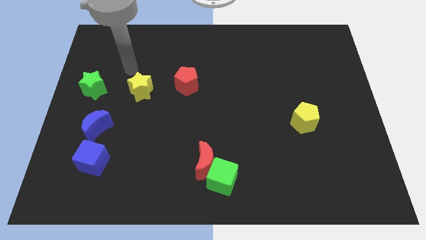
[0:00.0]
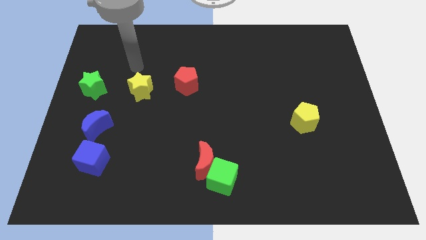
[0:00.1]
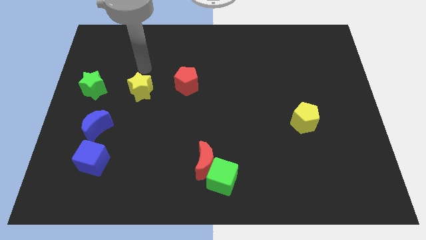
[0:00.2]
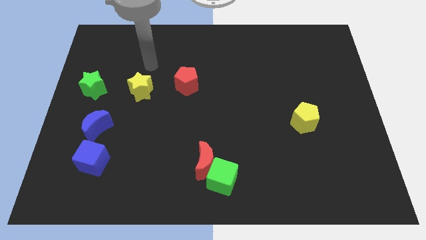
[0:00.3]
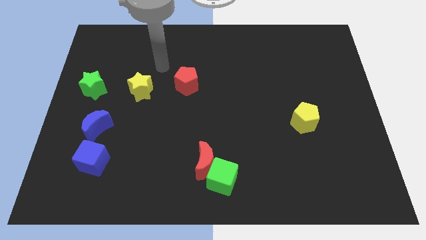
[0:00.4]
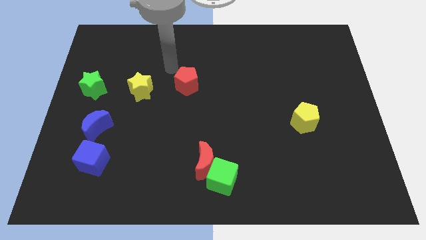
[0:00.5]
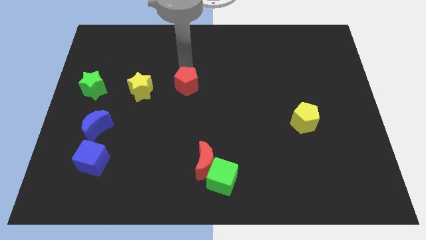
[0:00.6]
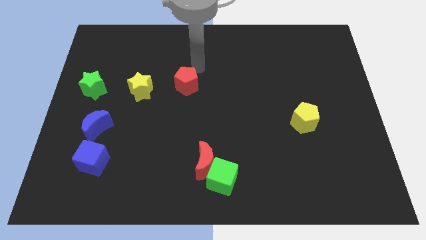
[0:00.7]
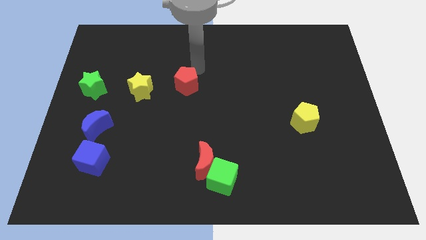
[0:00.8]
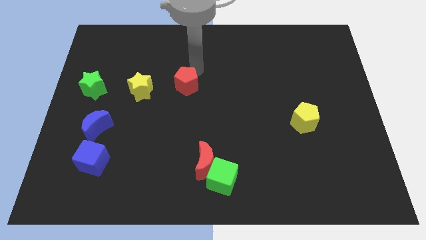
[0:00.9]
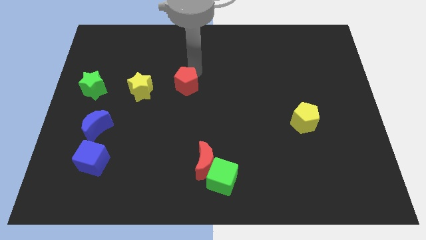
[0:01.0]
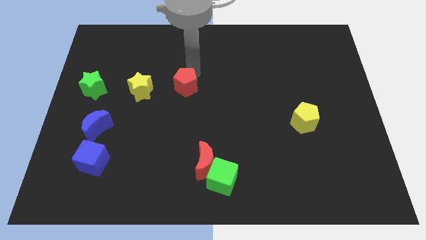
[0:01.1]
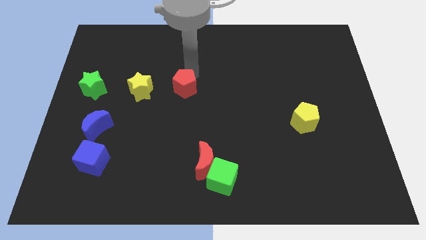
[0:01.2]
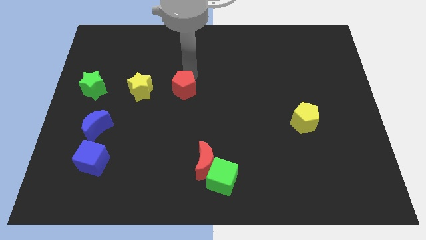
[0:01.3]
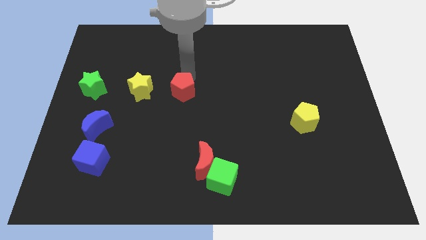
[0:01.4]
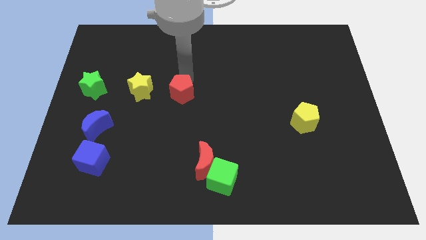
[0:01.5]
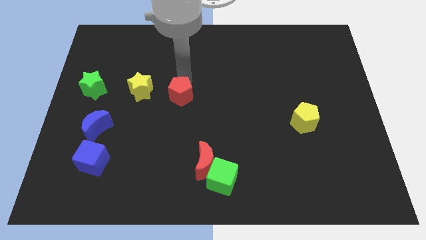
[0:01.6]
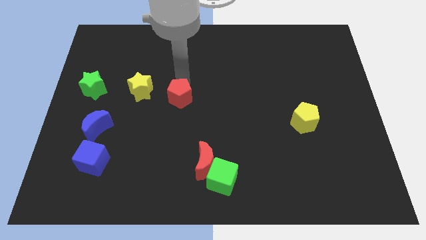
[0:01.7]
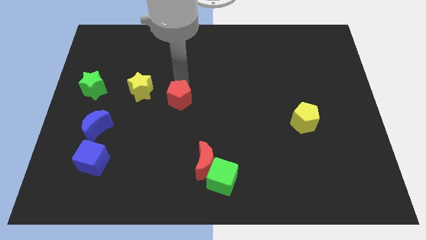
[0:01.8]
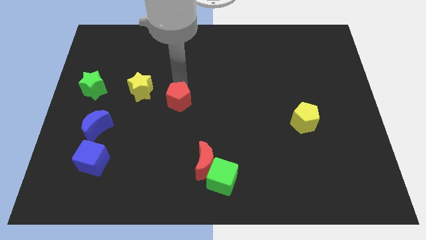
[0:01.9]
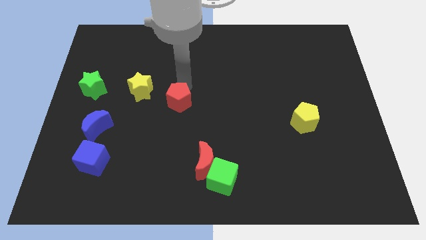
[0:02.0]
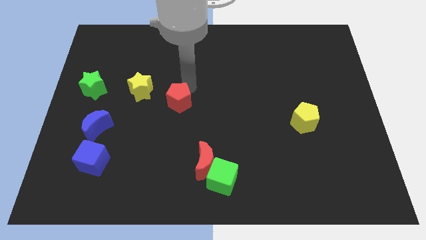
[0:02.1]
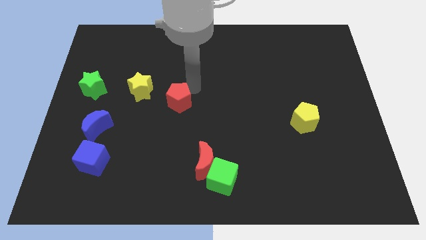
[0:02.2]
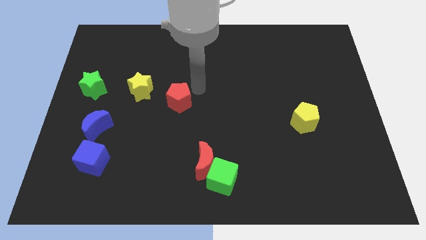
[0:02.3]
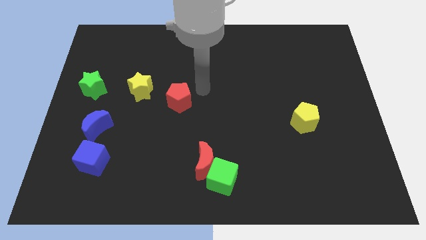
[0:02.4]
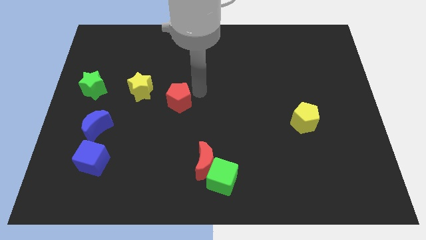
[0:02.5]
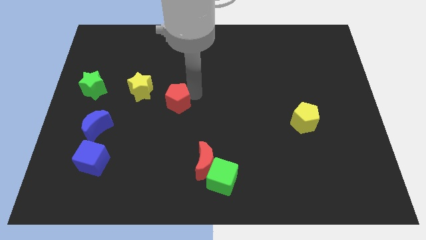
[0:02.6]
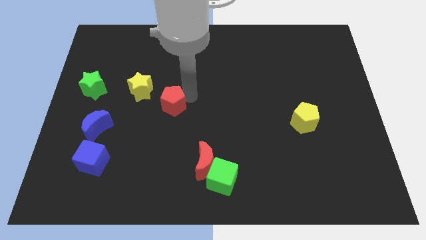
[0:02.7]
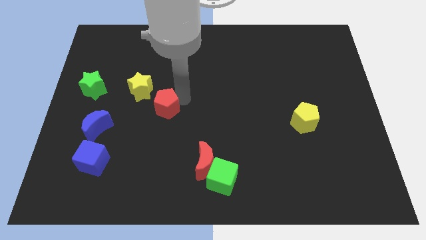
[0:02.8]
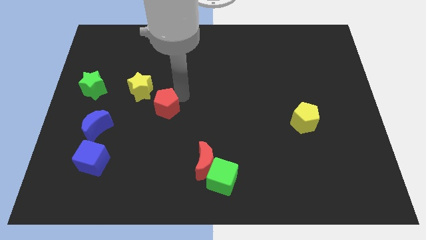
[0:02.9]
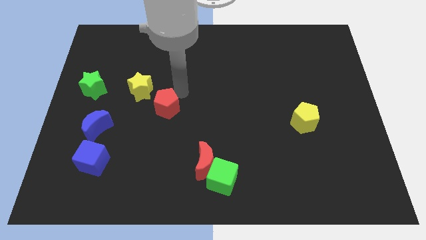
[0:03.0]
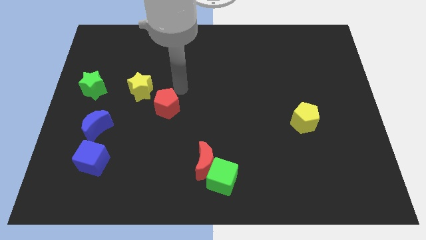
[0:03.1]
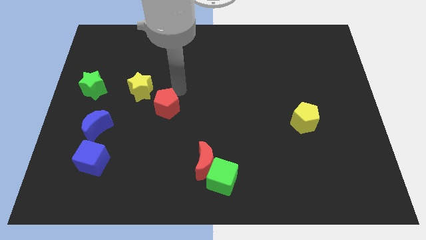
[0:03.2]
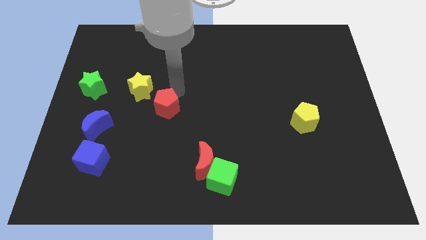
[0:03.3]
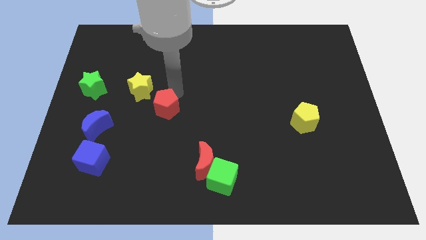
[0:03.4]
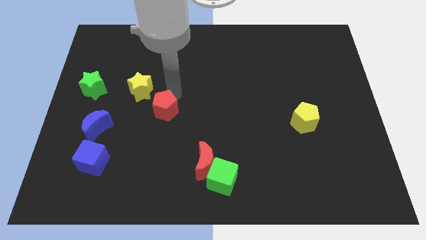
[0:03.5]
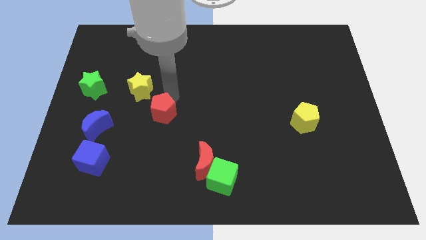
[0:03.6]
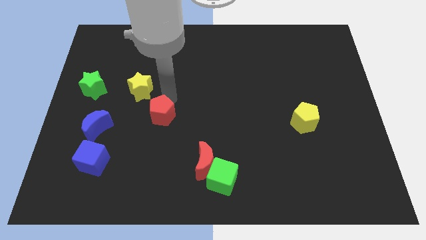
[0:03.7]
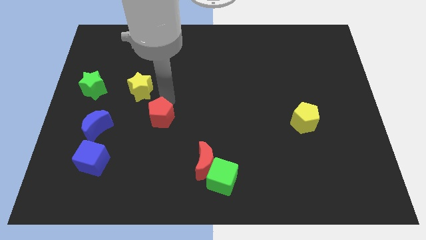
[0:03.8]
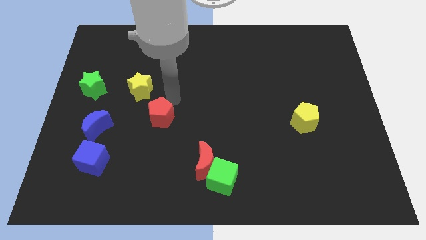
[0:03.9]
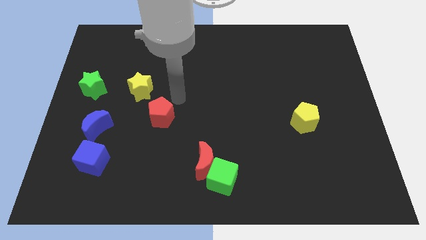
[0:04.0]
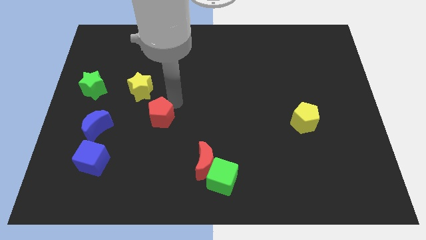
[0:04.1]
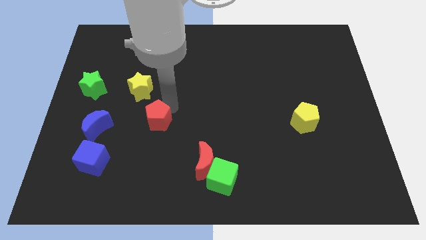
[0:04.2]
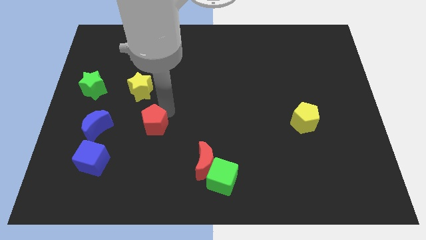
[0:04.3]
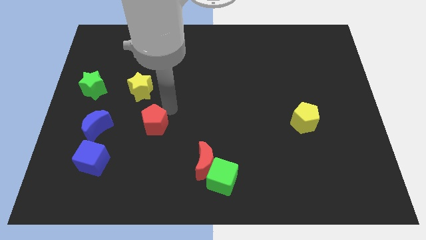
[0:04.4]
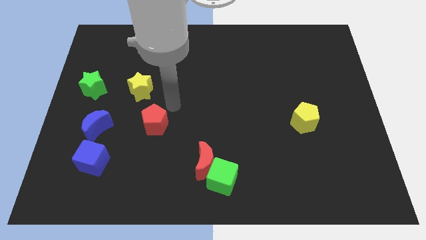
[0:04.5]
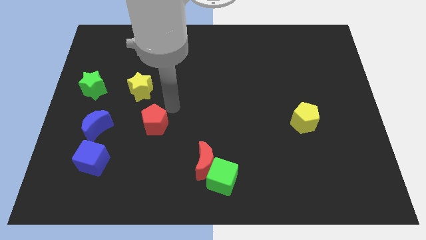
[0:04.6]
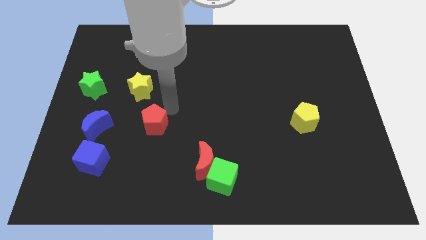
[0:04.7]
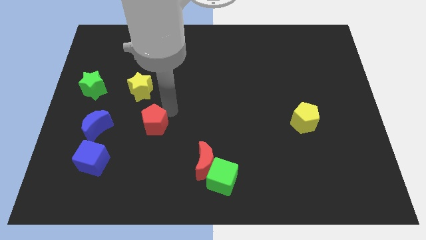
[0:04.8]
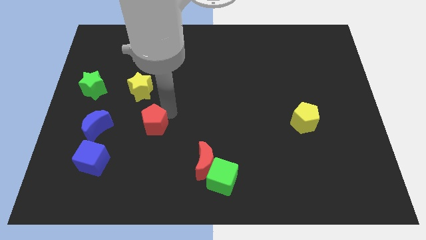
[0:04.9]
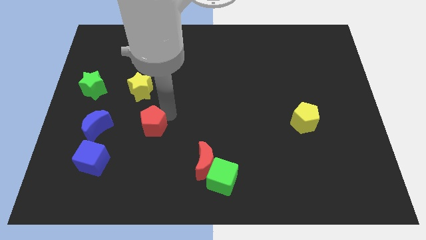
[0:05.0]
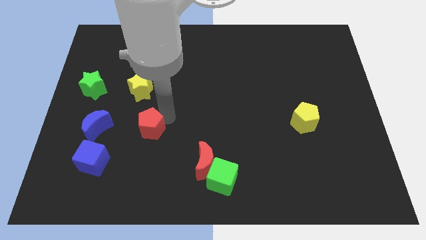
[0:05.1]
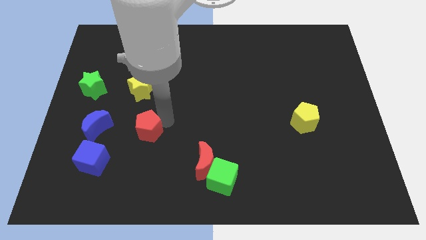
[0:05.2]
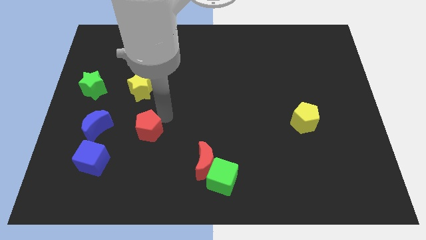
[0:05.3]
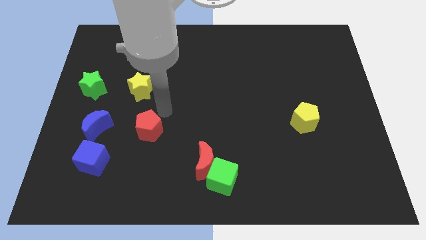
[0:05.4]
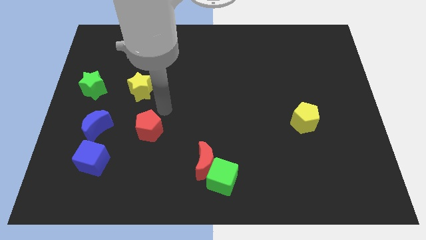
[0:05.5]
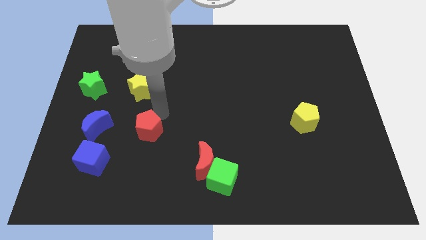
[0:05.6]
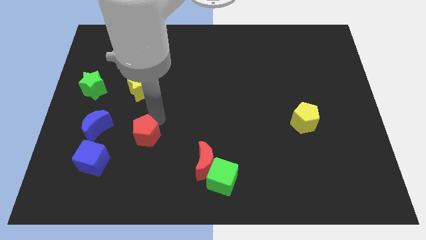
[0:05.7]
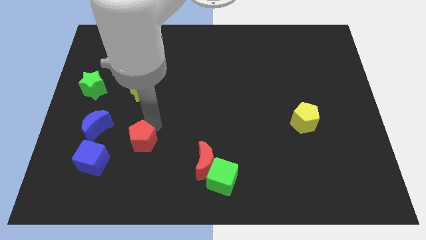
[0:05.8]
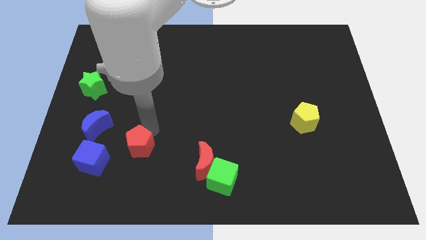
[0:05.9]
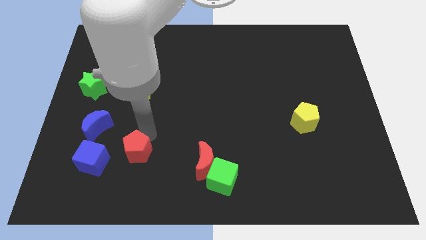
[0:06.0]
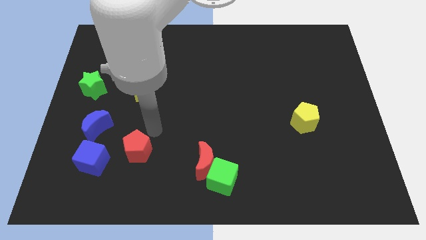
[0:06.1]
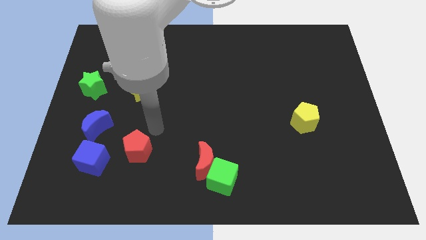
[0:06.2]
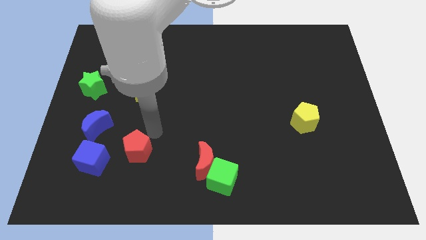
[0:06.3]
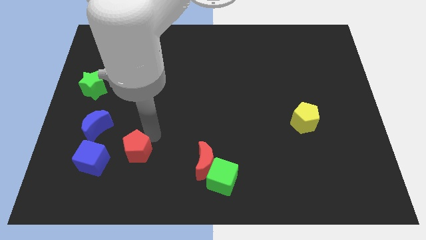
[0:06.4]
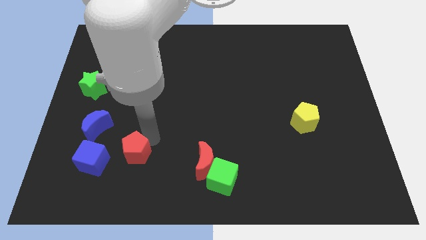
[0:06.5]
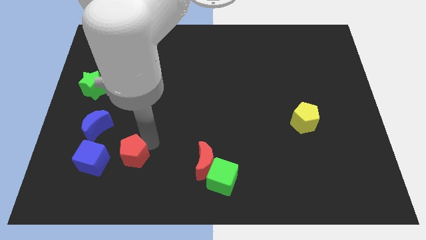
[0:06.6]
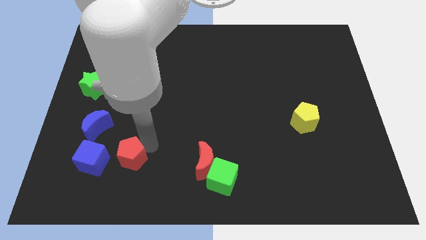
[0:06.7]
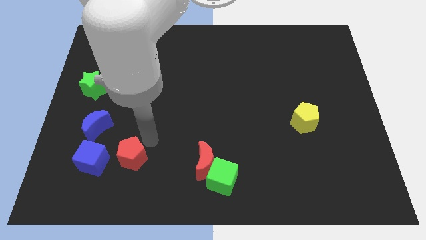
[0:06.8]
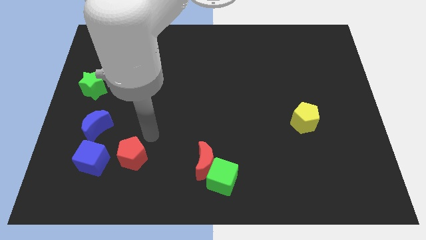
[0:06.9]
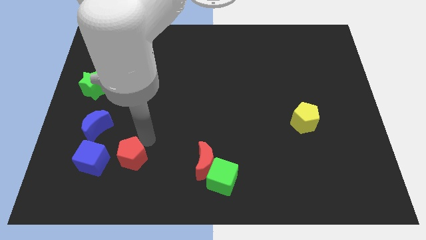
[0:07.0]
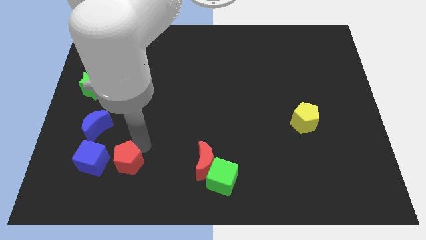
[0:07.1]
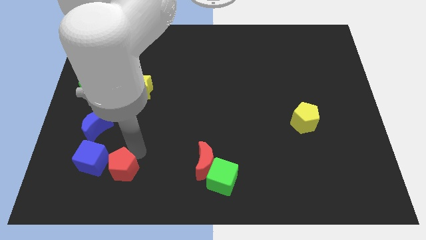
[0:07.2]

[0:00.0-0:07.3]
put the red pentagon to the bottom right of the blue cube
